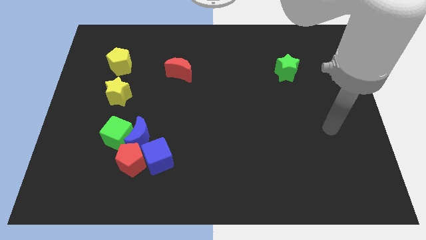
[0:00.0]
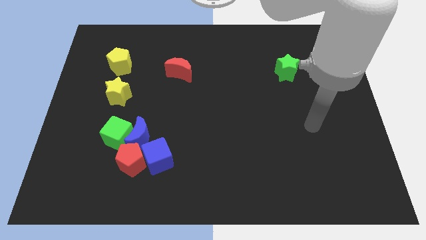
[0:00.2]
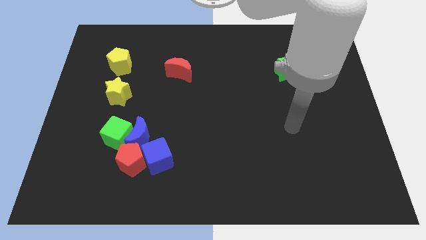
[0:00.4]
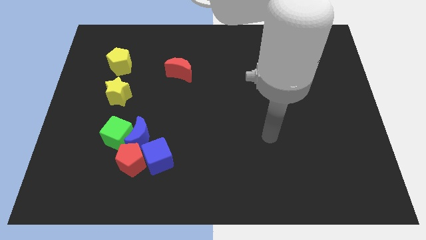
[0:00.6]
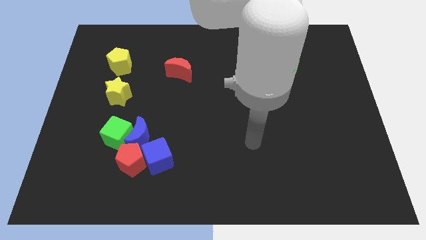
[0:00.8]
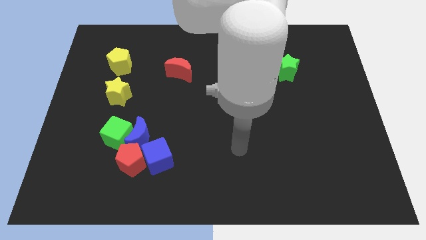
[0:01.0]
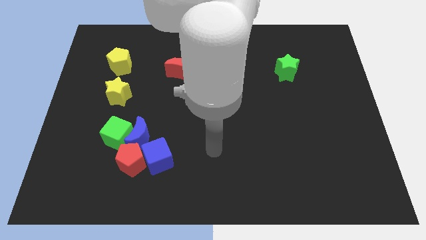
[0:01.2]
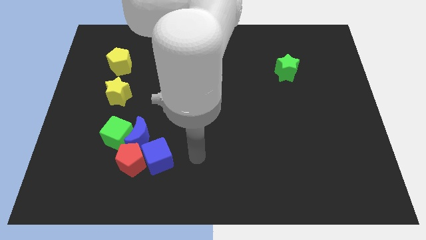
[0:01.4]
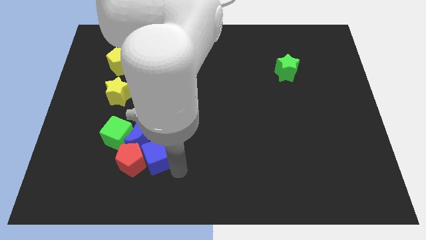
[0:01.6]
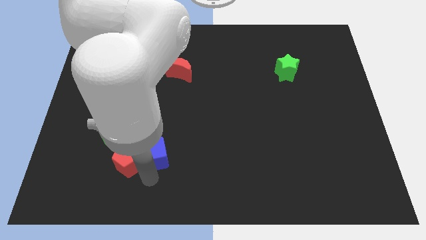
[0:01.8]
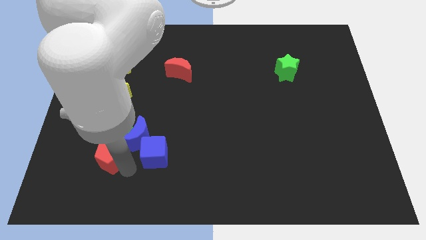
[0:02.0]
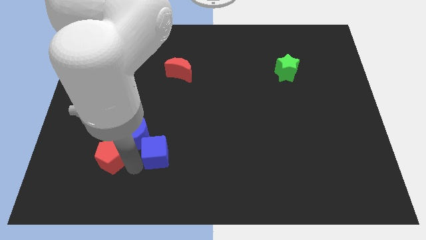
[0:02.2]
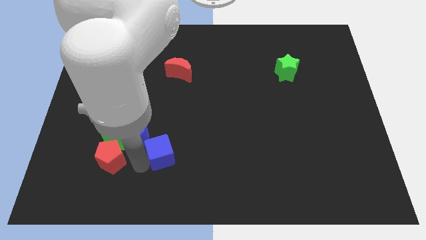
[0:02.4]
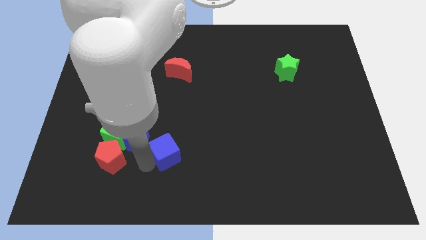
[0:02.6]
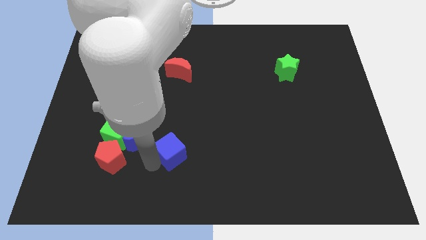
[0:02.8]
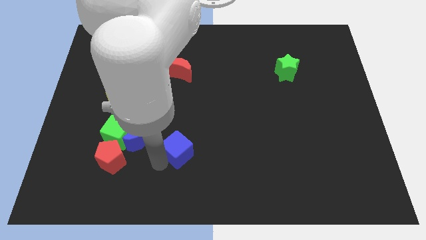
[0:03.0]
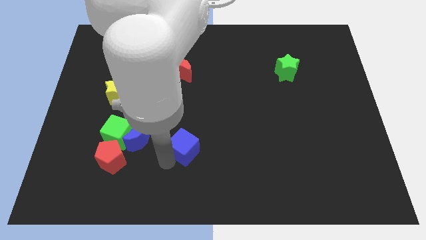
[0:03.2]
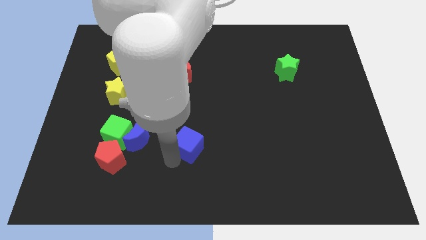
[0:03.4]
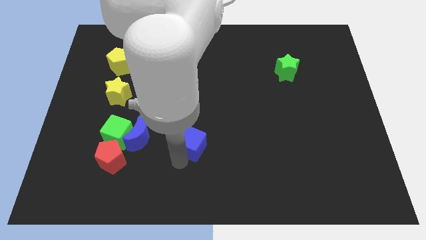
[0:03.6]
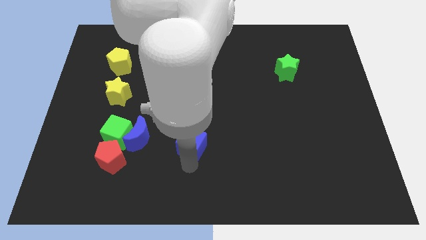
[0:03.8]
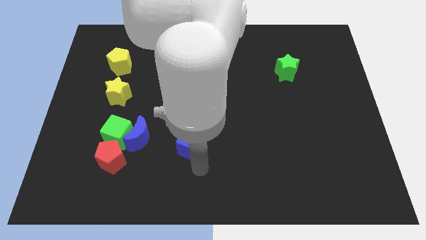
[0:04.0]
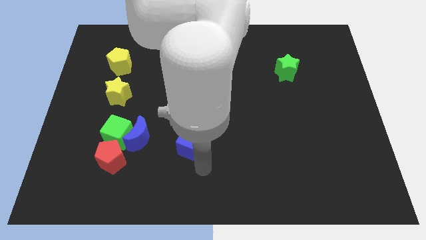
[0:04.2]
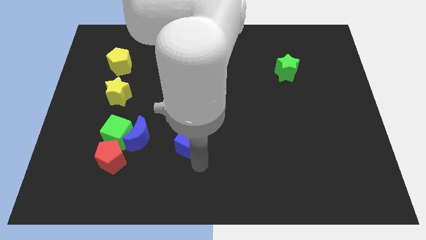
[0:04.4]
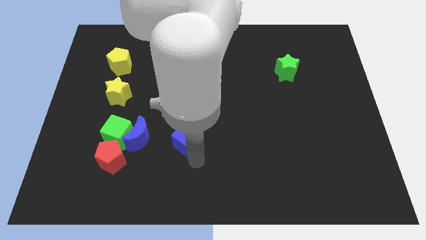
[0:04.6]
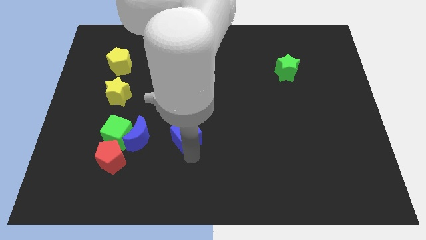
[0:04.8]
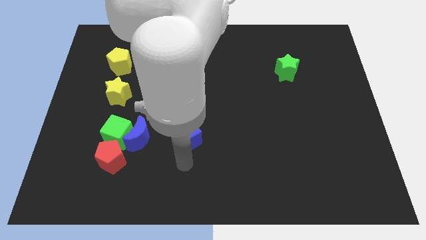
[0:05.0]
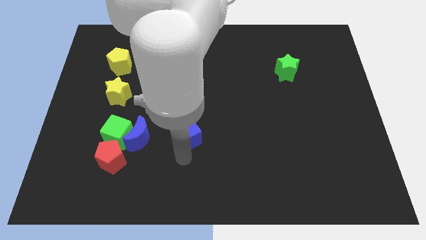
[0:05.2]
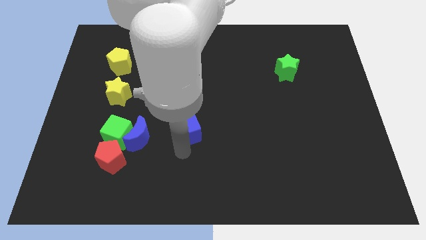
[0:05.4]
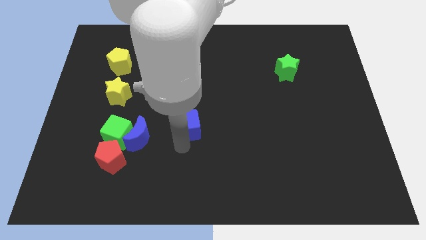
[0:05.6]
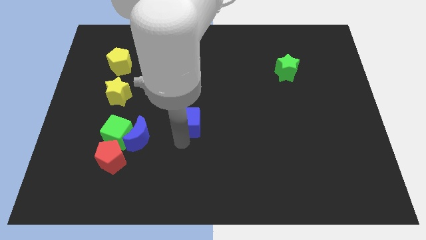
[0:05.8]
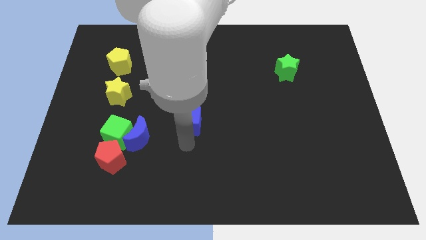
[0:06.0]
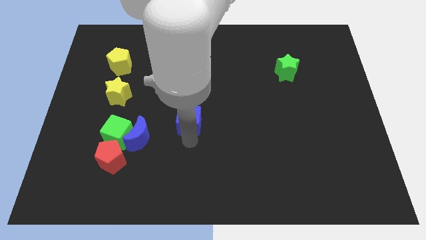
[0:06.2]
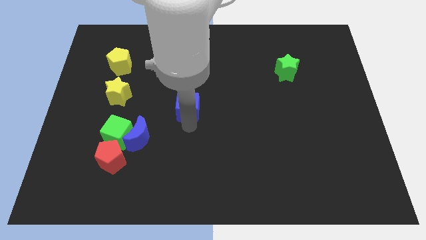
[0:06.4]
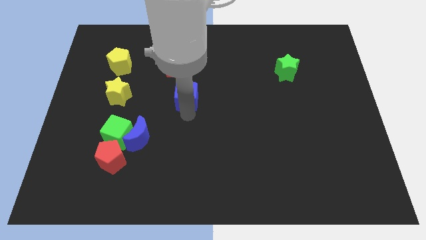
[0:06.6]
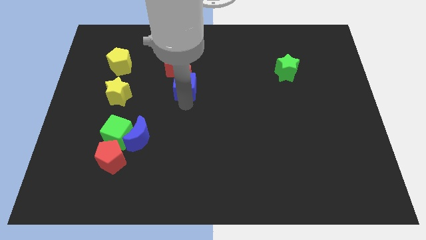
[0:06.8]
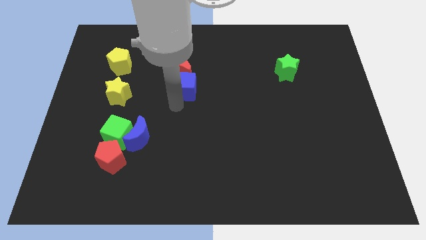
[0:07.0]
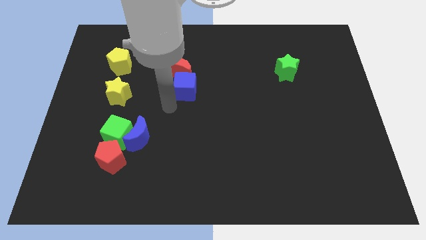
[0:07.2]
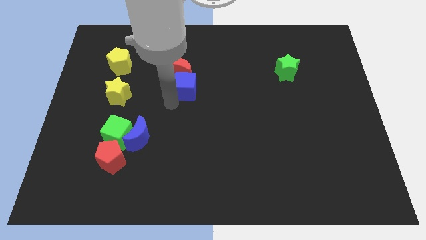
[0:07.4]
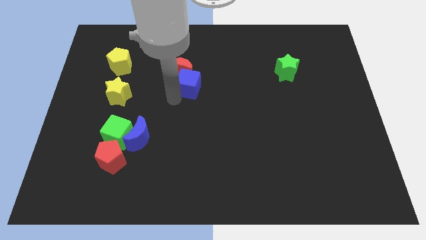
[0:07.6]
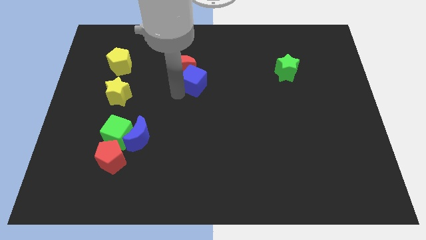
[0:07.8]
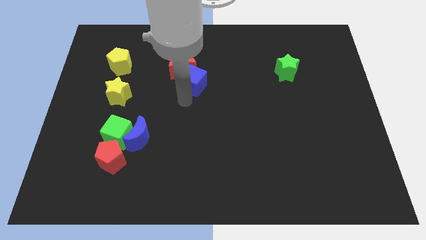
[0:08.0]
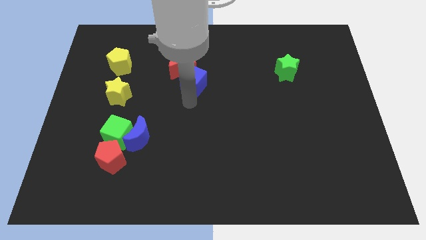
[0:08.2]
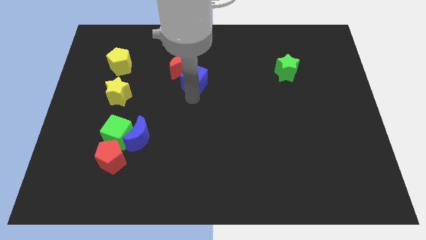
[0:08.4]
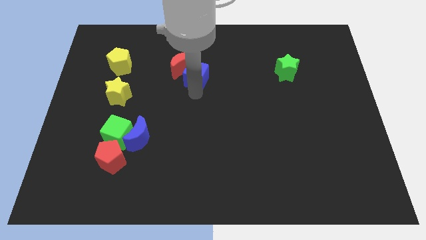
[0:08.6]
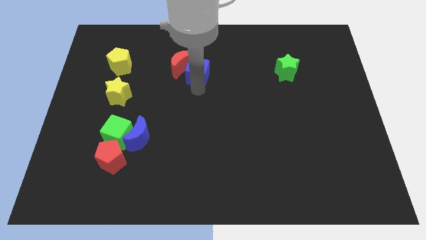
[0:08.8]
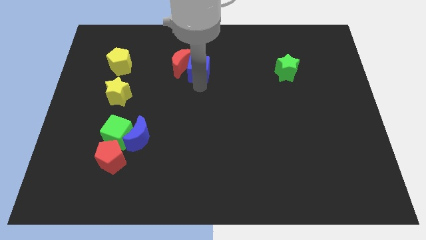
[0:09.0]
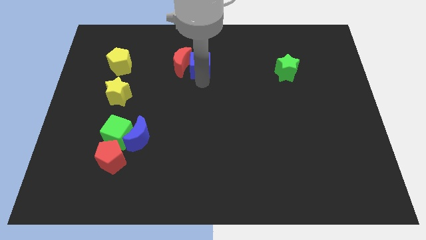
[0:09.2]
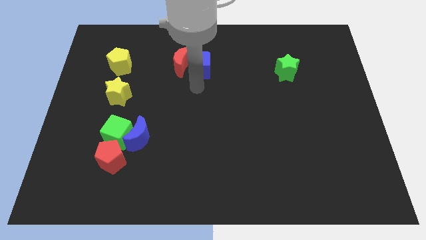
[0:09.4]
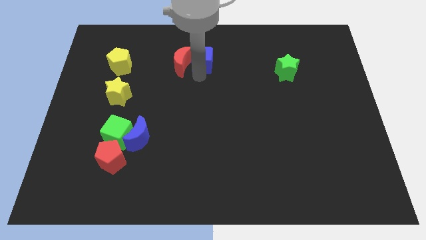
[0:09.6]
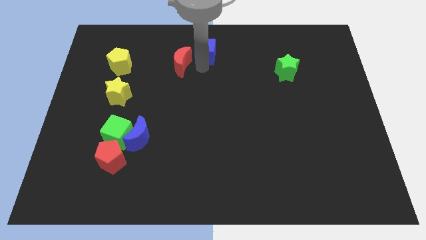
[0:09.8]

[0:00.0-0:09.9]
move the blue cube to the towards your base

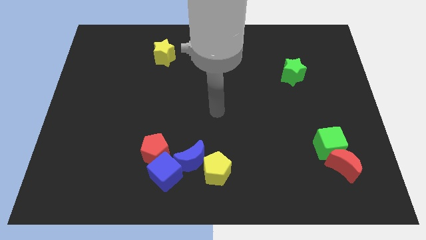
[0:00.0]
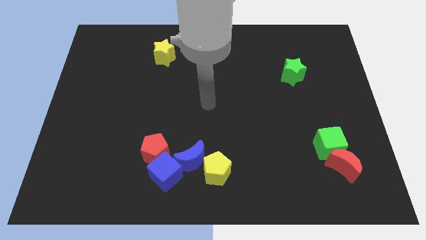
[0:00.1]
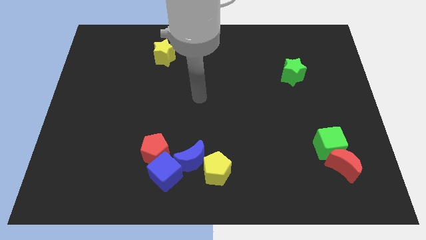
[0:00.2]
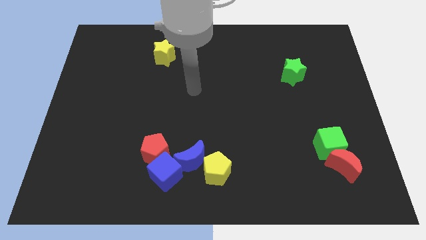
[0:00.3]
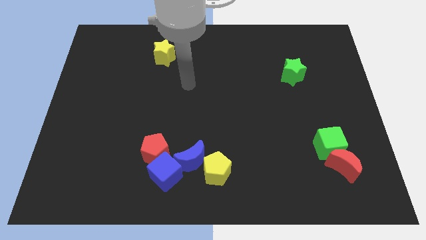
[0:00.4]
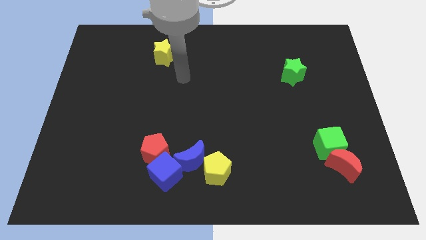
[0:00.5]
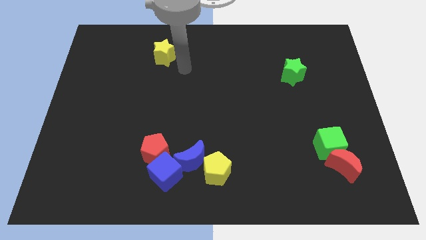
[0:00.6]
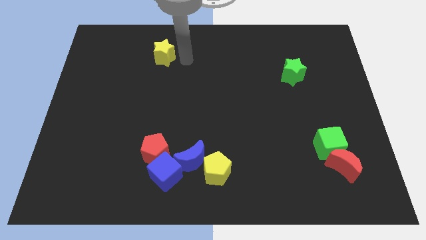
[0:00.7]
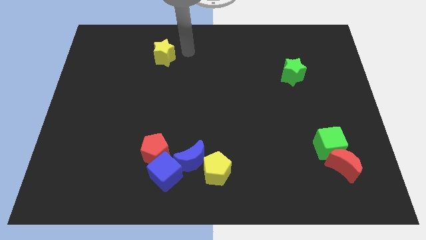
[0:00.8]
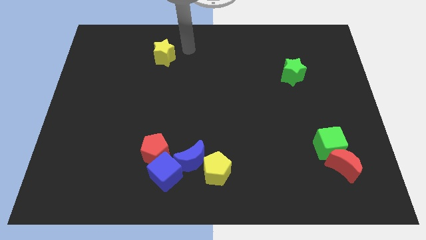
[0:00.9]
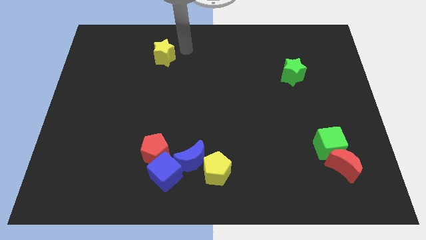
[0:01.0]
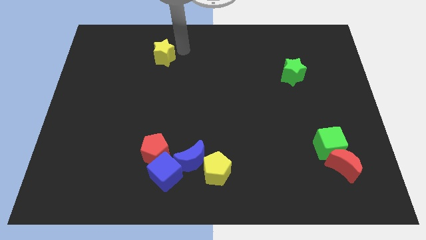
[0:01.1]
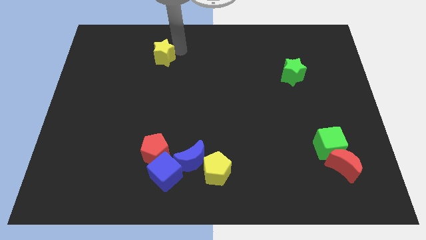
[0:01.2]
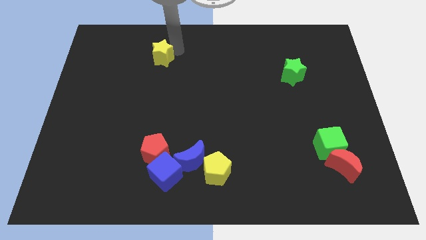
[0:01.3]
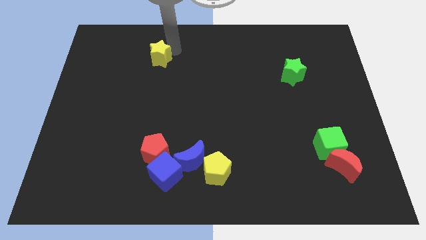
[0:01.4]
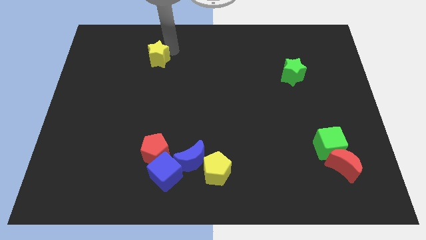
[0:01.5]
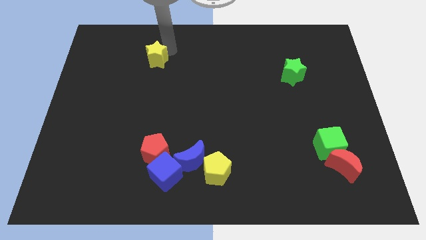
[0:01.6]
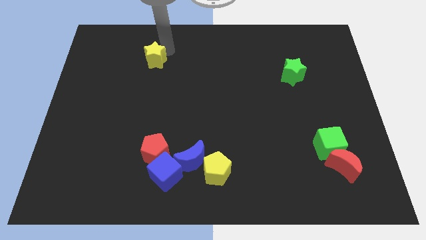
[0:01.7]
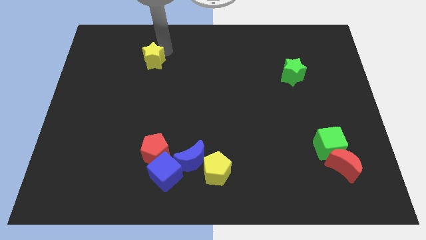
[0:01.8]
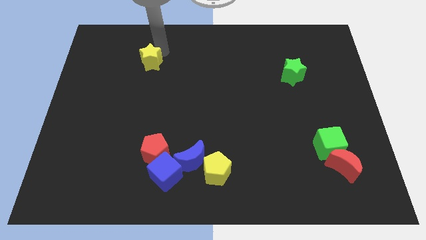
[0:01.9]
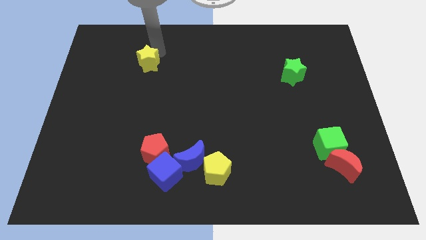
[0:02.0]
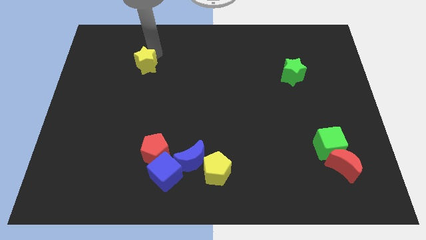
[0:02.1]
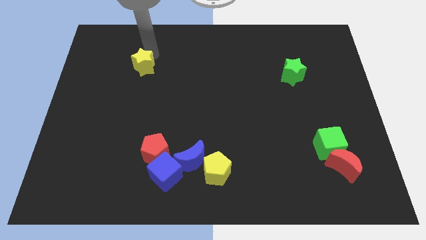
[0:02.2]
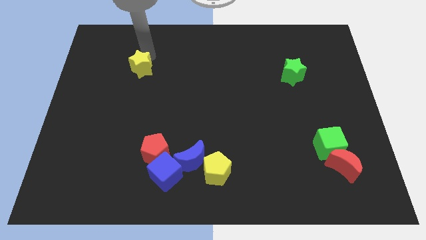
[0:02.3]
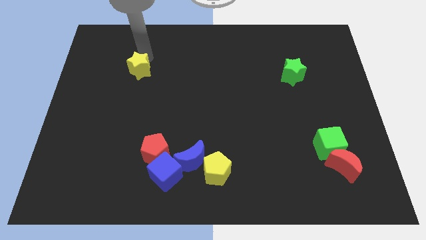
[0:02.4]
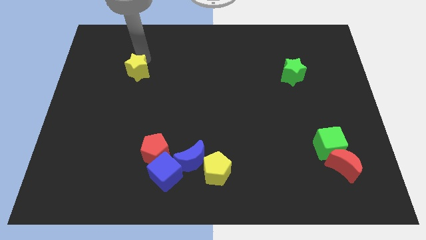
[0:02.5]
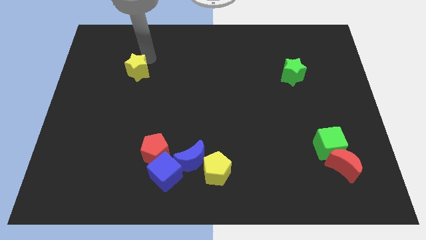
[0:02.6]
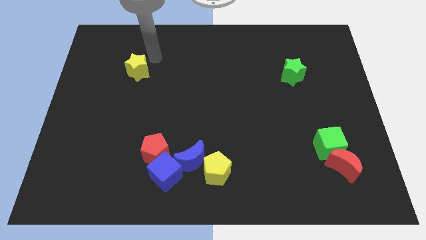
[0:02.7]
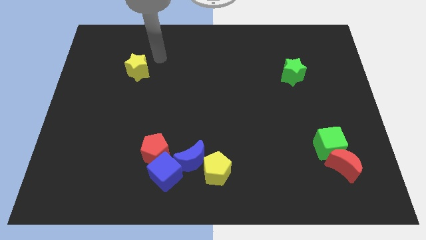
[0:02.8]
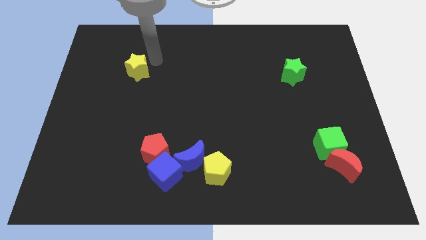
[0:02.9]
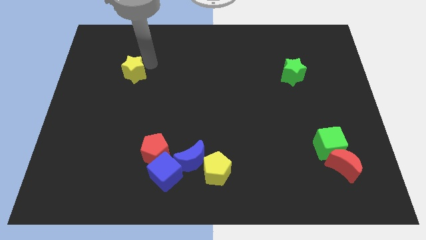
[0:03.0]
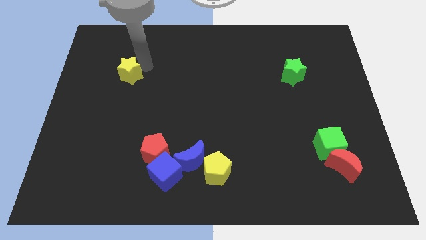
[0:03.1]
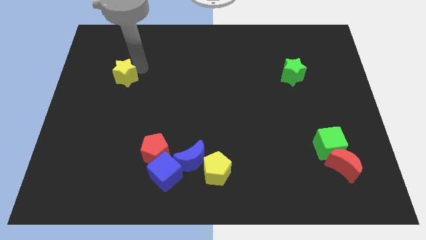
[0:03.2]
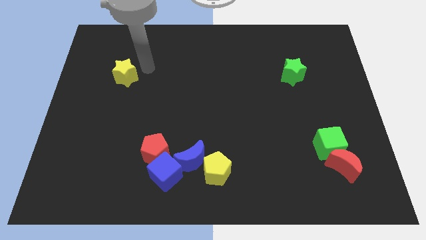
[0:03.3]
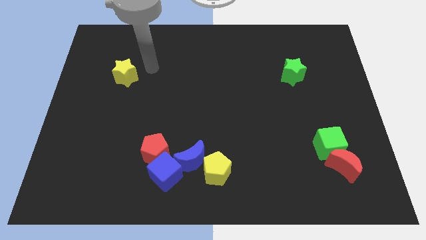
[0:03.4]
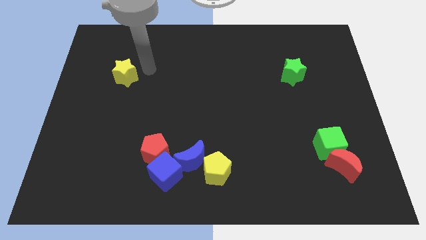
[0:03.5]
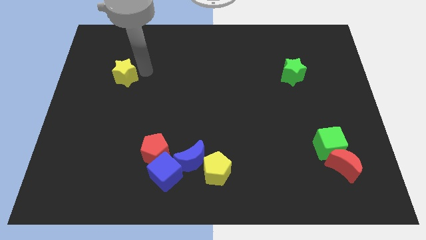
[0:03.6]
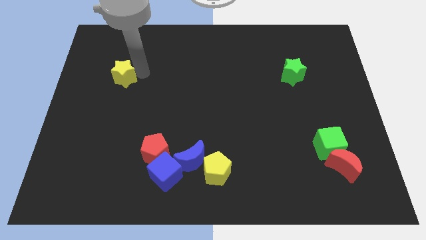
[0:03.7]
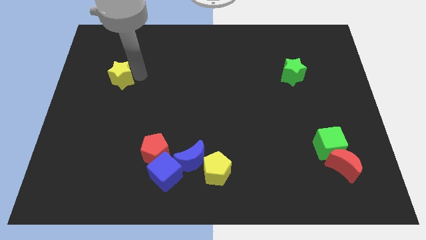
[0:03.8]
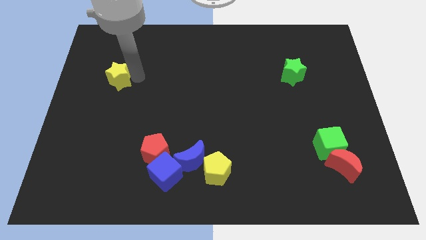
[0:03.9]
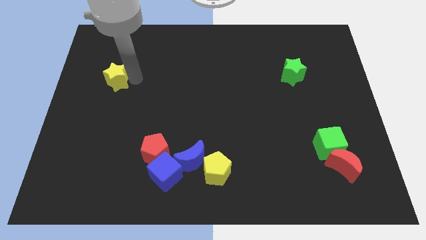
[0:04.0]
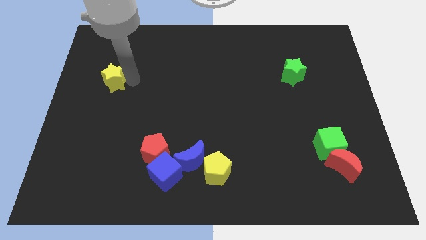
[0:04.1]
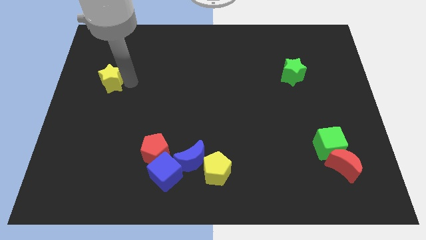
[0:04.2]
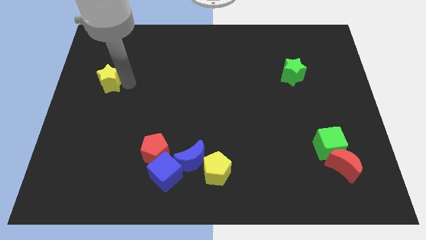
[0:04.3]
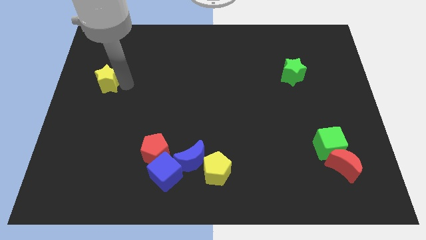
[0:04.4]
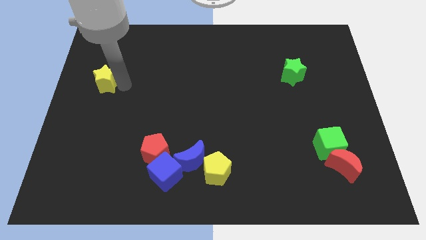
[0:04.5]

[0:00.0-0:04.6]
move the yellow star to the center left
